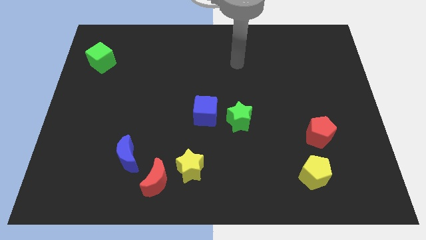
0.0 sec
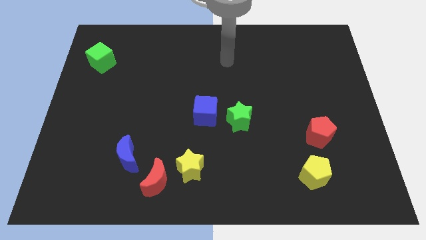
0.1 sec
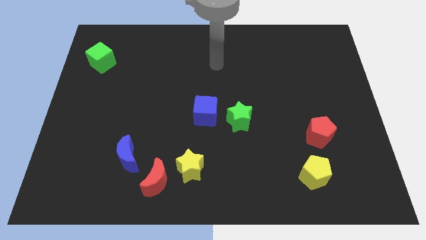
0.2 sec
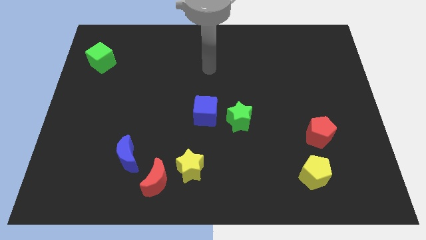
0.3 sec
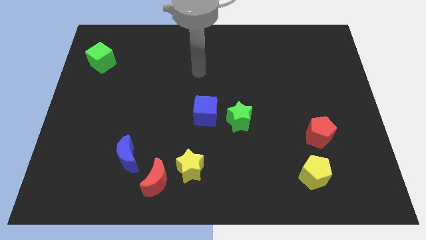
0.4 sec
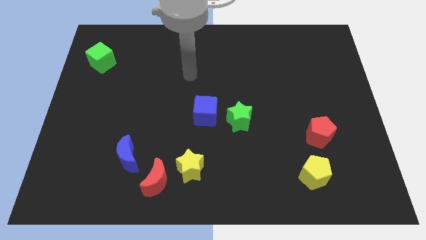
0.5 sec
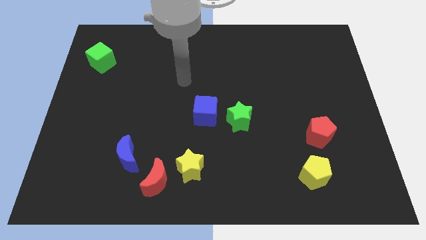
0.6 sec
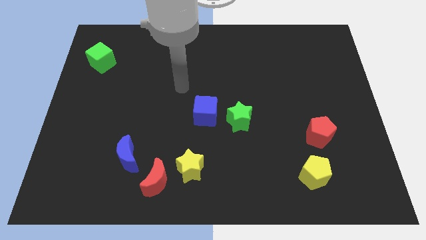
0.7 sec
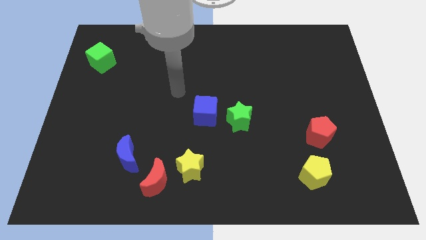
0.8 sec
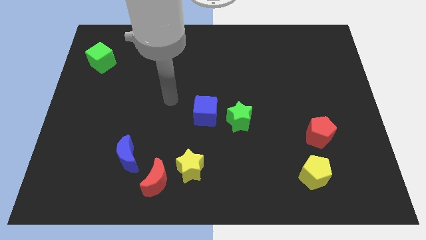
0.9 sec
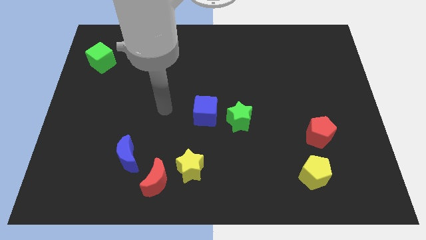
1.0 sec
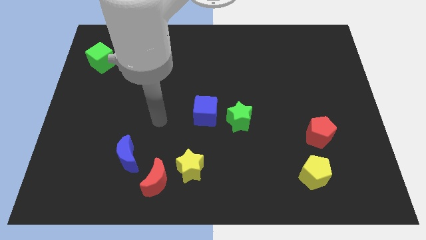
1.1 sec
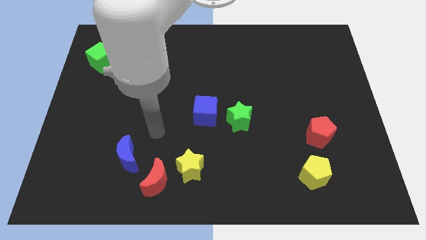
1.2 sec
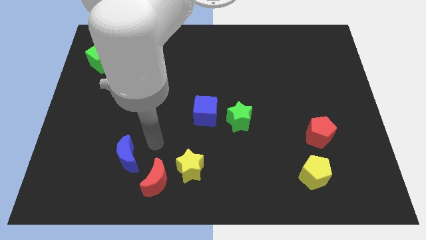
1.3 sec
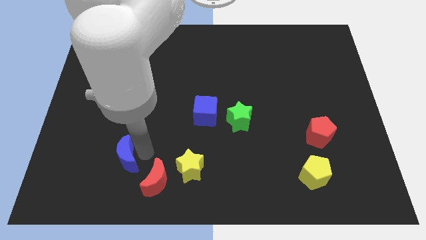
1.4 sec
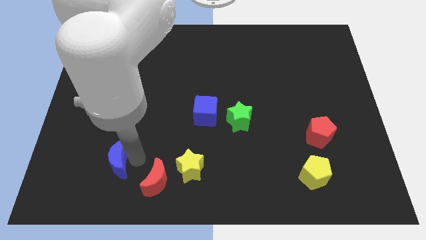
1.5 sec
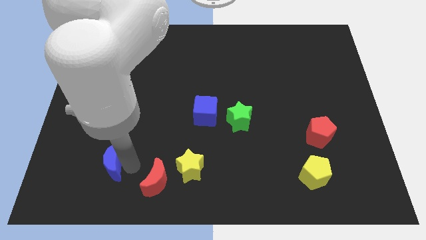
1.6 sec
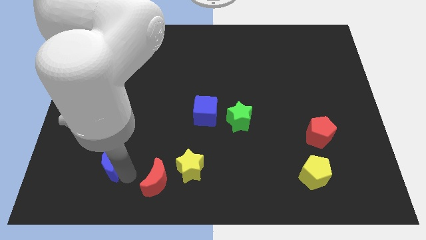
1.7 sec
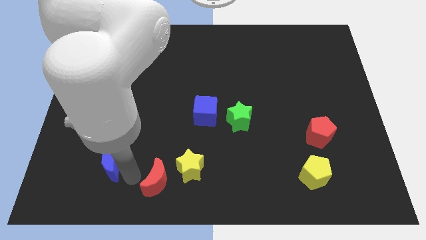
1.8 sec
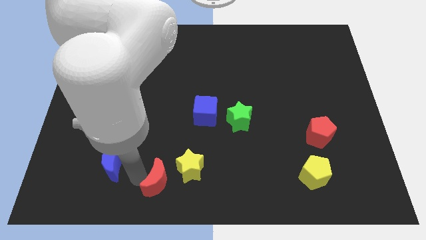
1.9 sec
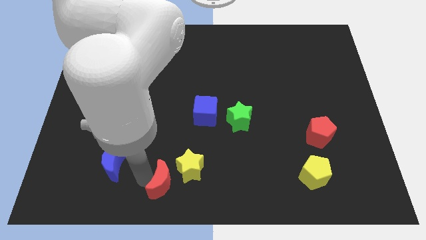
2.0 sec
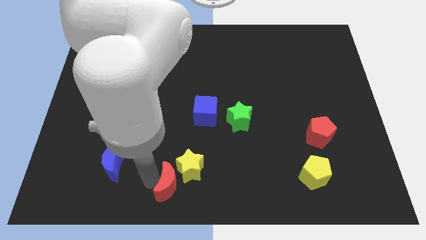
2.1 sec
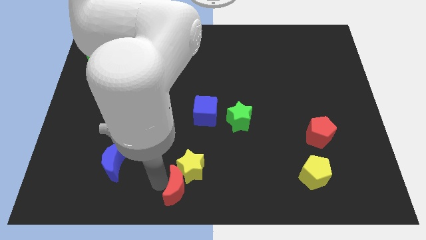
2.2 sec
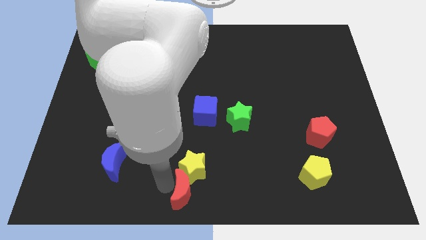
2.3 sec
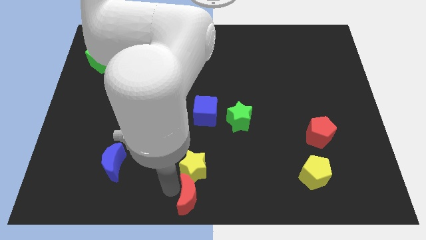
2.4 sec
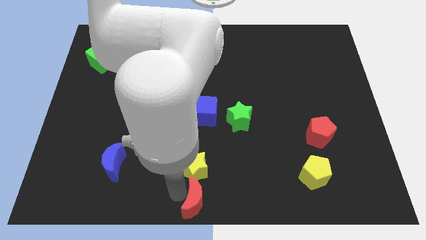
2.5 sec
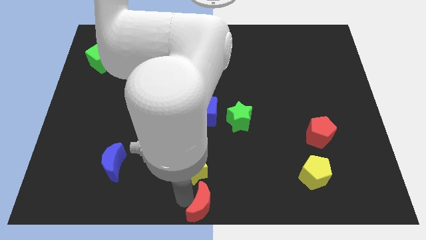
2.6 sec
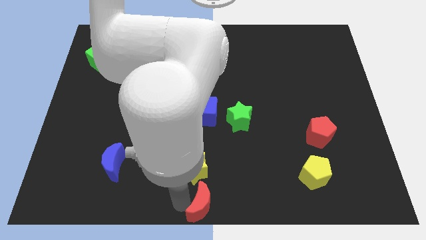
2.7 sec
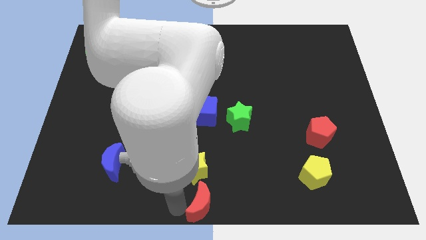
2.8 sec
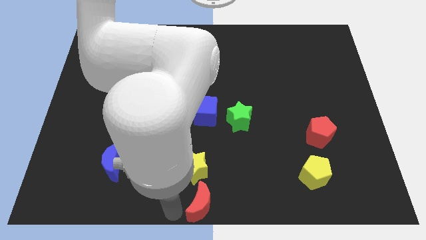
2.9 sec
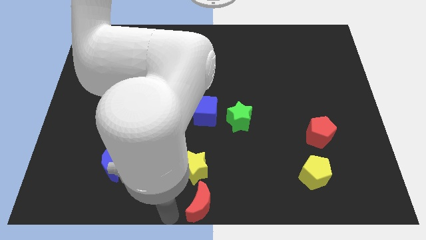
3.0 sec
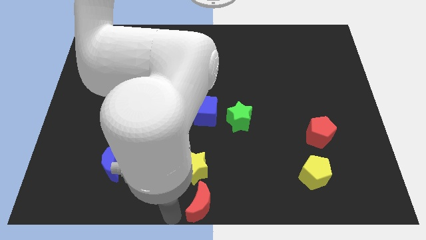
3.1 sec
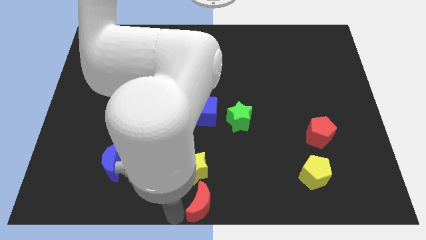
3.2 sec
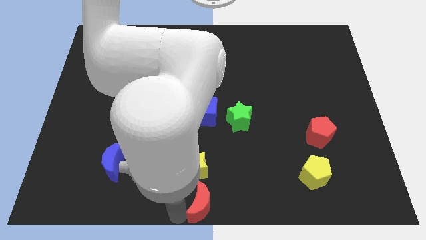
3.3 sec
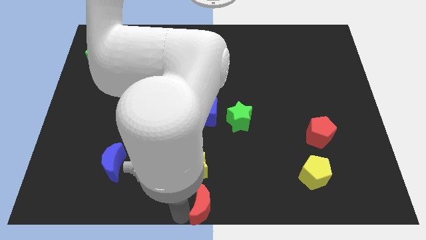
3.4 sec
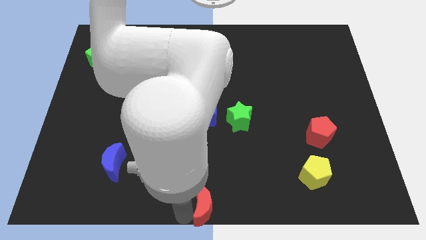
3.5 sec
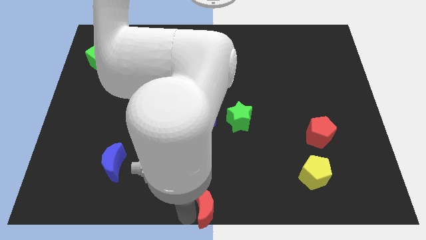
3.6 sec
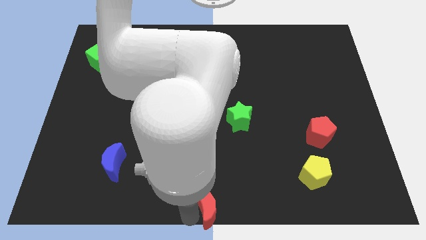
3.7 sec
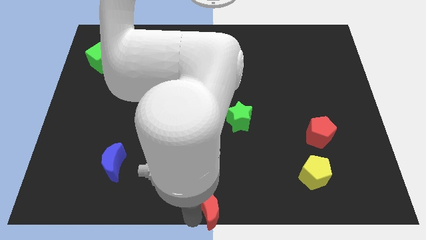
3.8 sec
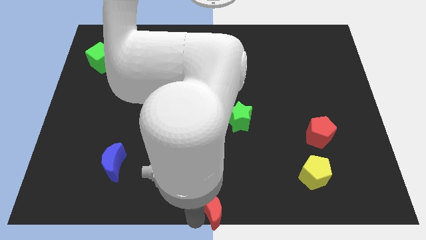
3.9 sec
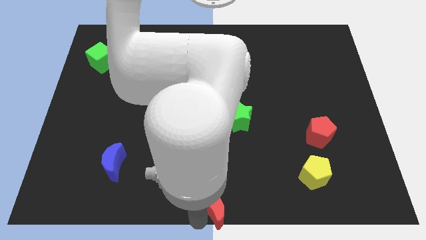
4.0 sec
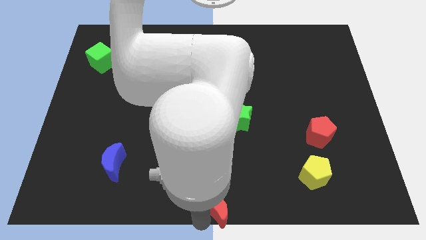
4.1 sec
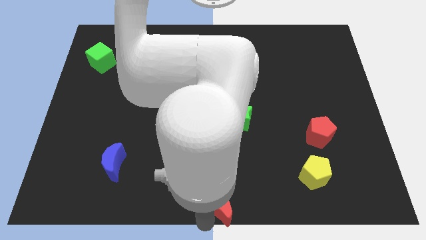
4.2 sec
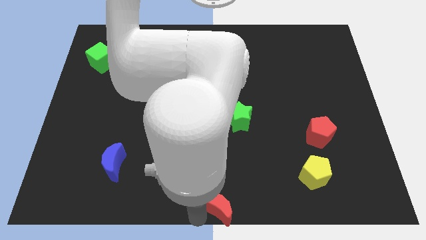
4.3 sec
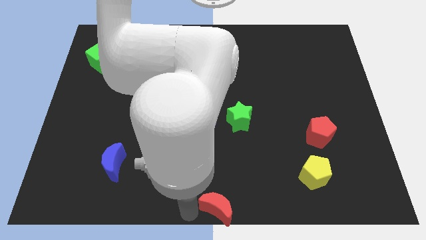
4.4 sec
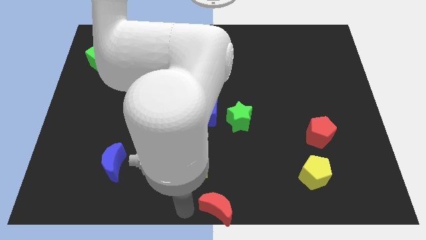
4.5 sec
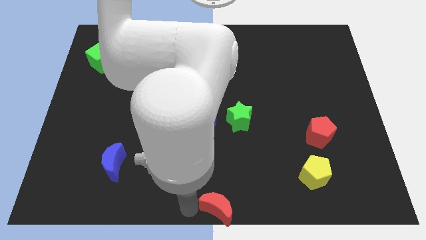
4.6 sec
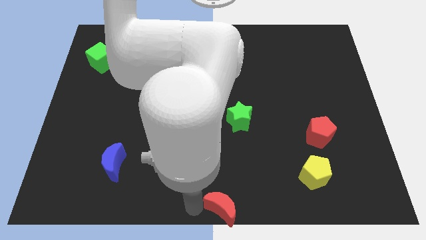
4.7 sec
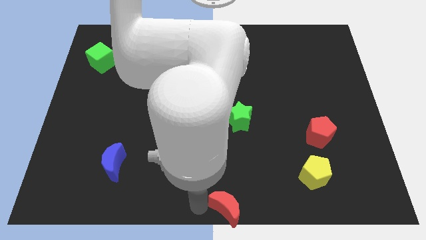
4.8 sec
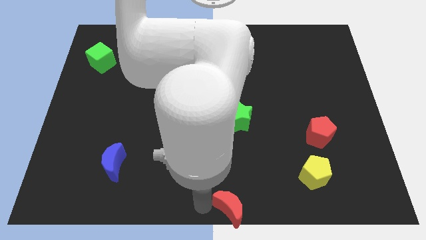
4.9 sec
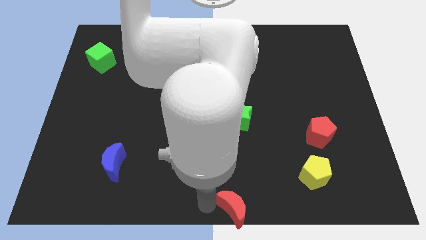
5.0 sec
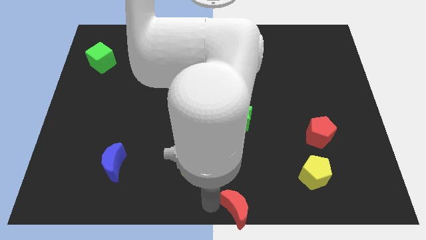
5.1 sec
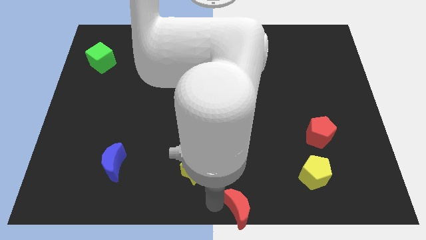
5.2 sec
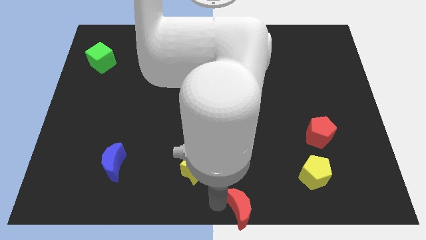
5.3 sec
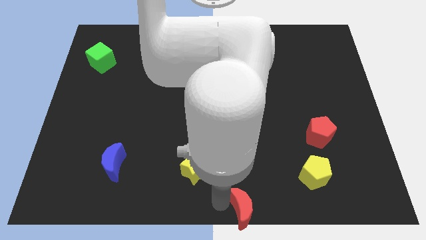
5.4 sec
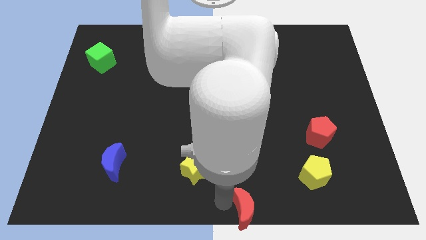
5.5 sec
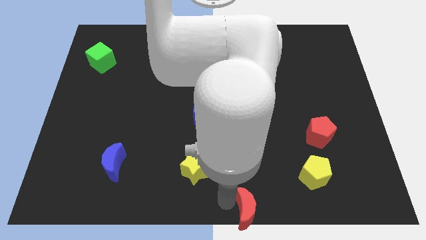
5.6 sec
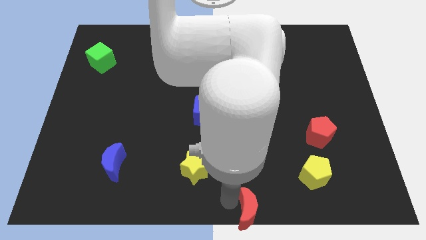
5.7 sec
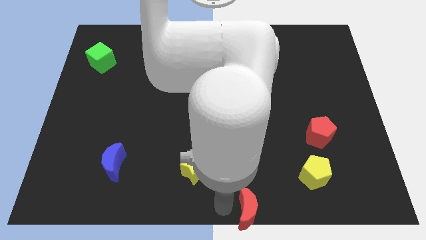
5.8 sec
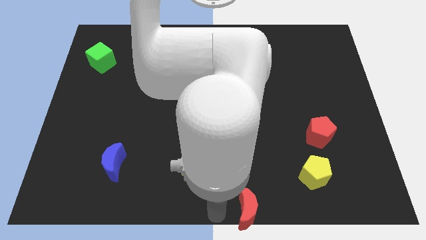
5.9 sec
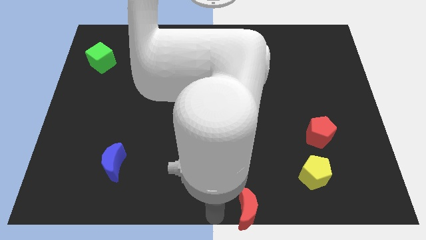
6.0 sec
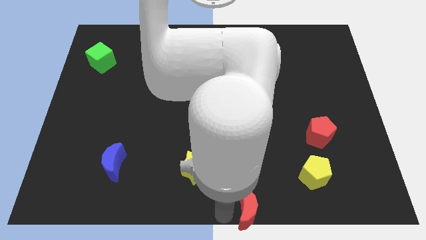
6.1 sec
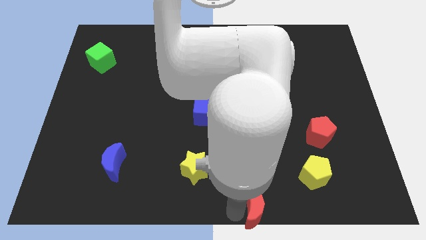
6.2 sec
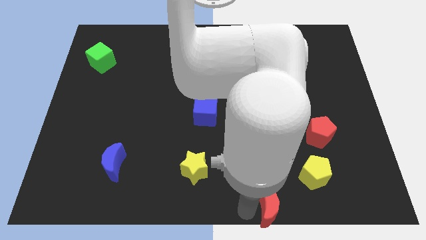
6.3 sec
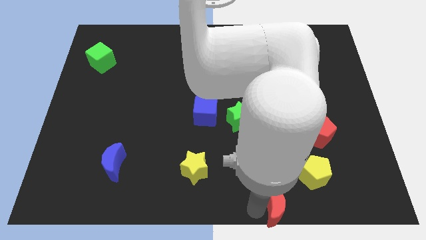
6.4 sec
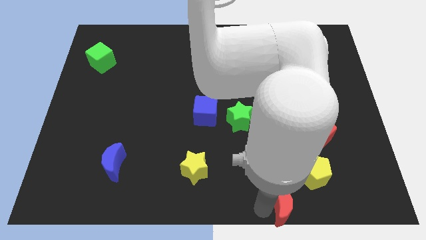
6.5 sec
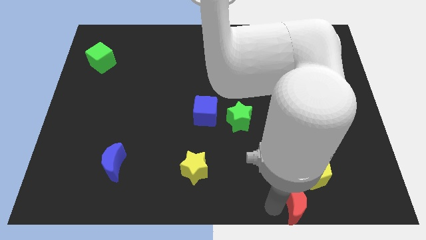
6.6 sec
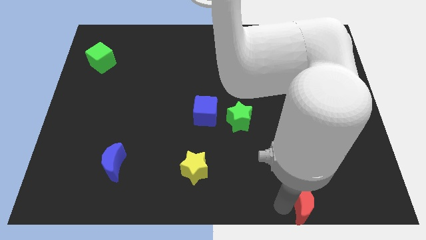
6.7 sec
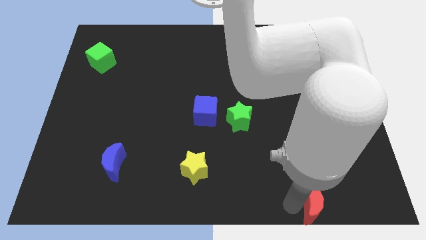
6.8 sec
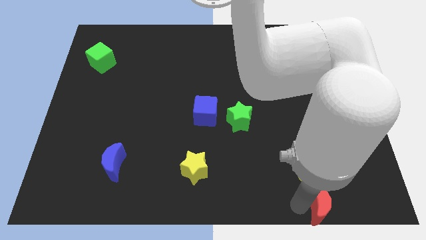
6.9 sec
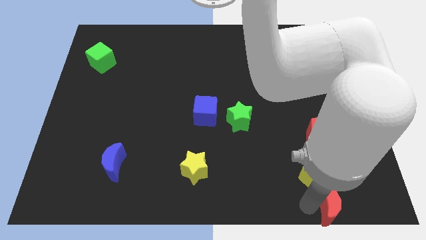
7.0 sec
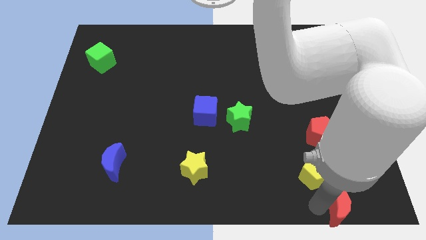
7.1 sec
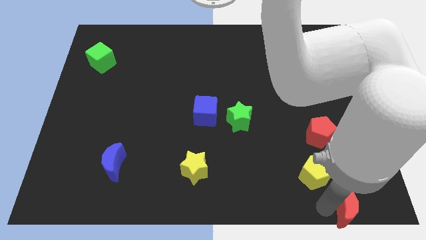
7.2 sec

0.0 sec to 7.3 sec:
slide the red moon to the bottom right of the board
